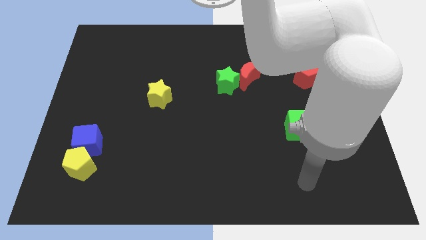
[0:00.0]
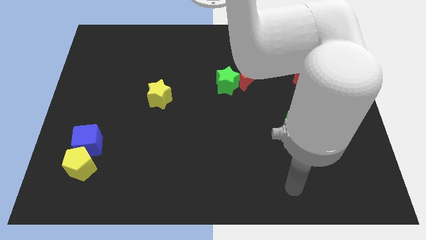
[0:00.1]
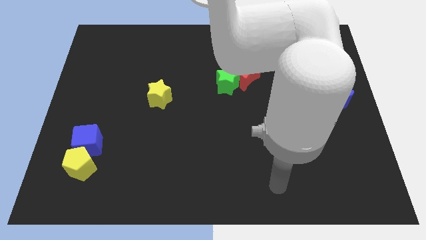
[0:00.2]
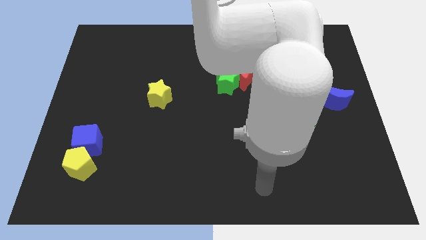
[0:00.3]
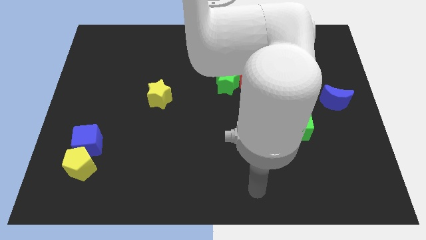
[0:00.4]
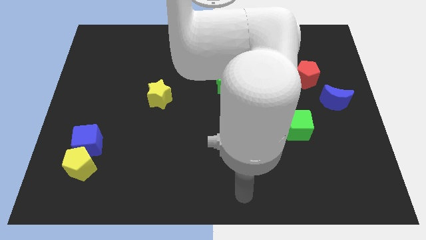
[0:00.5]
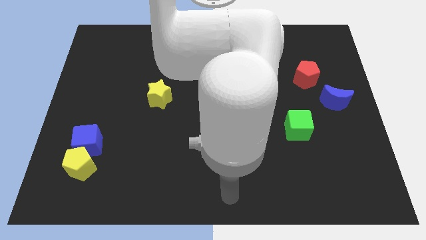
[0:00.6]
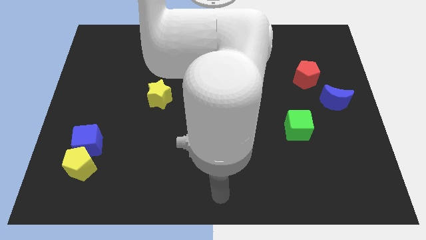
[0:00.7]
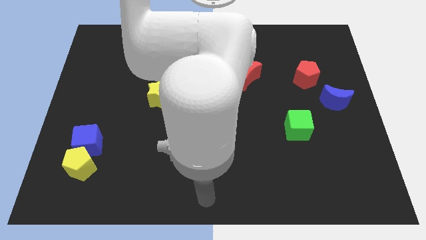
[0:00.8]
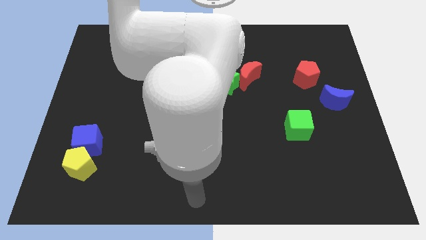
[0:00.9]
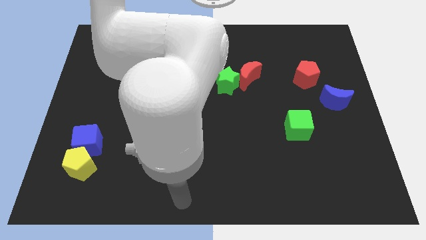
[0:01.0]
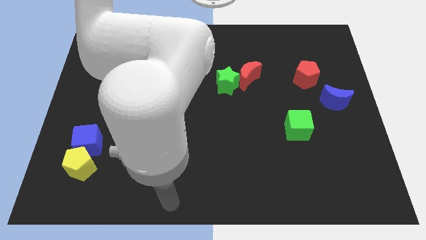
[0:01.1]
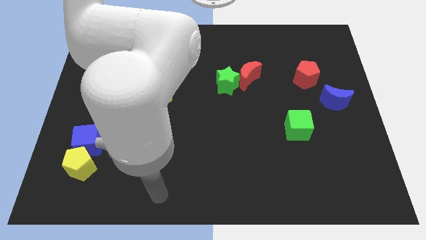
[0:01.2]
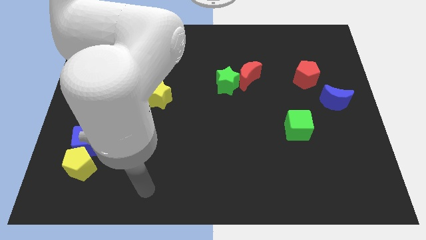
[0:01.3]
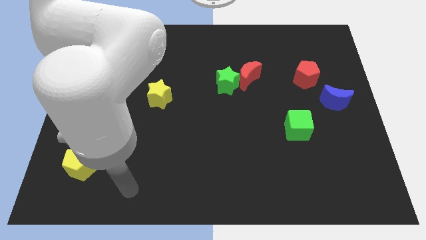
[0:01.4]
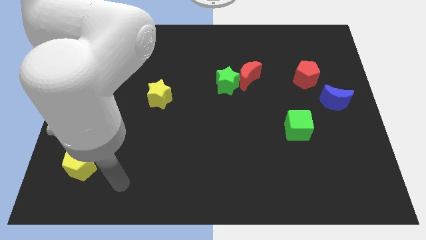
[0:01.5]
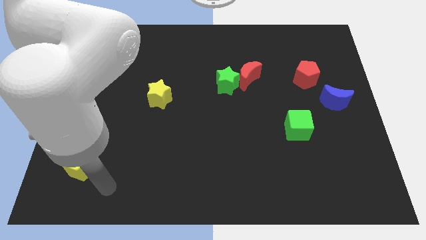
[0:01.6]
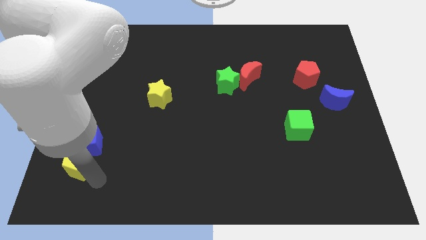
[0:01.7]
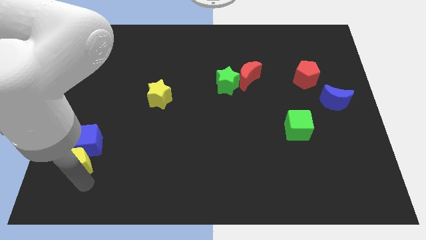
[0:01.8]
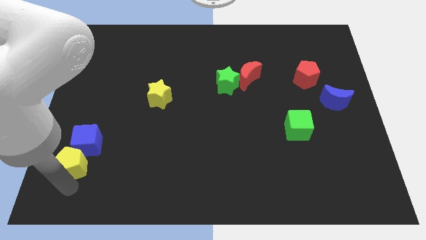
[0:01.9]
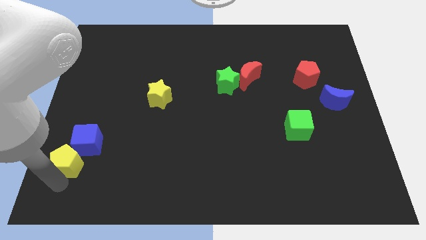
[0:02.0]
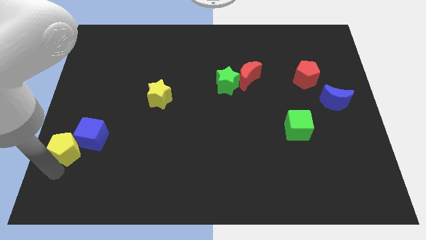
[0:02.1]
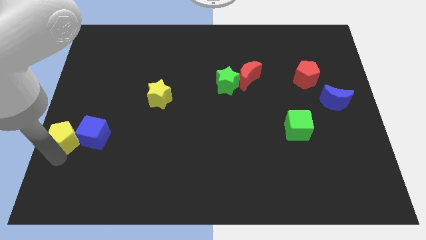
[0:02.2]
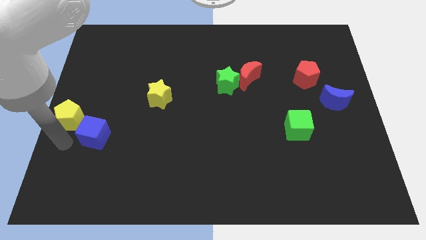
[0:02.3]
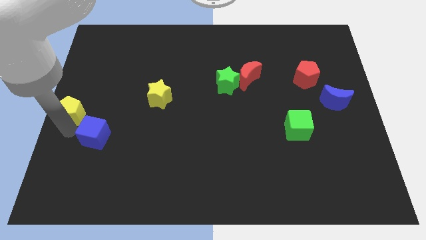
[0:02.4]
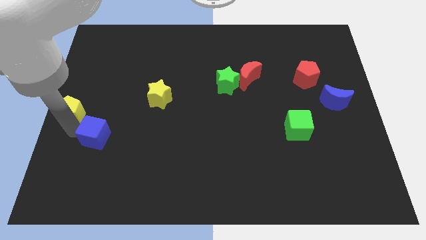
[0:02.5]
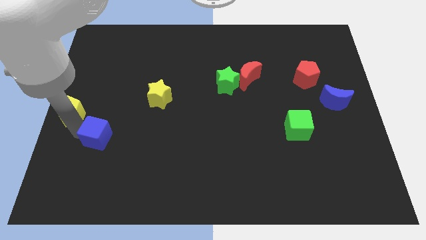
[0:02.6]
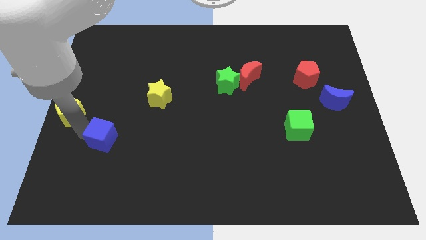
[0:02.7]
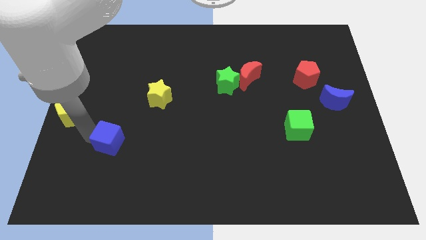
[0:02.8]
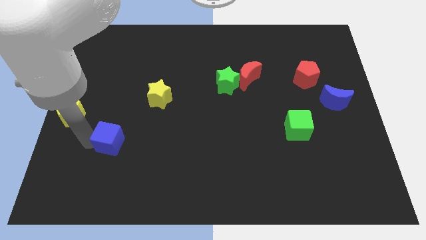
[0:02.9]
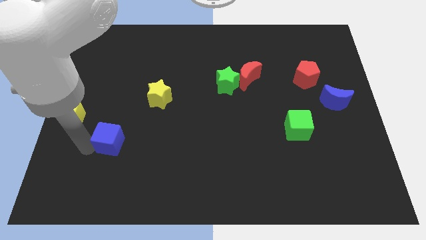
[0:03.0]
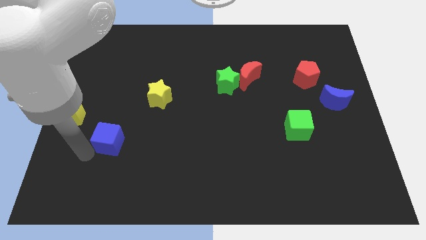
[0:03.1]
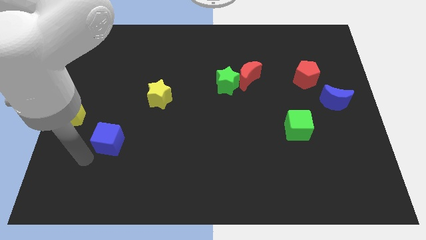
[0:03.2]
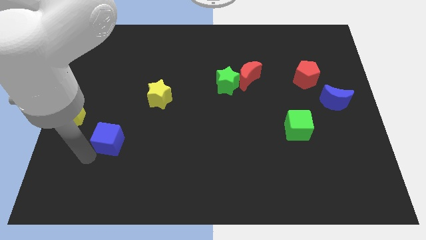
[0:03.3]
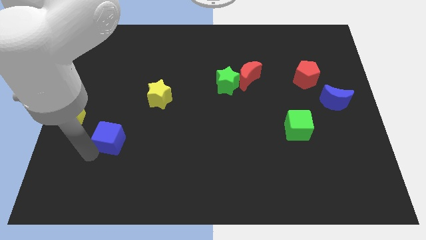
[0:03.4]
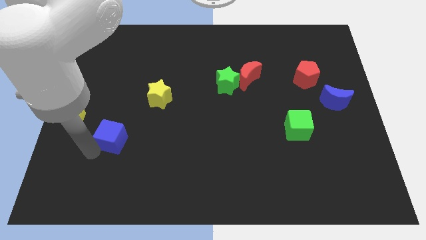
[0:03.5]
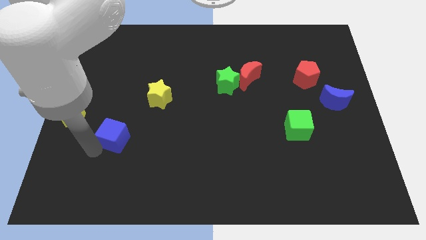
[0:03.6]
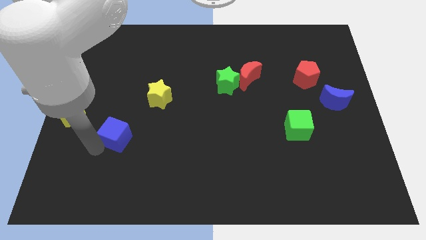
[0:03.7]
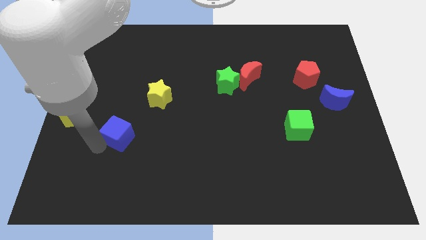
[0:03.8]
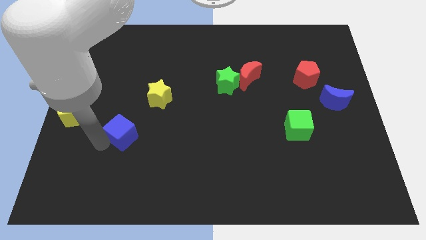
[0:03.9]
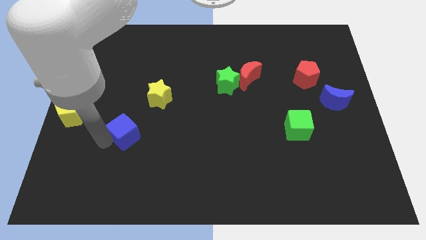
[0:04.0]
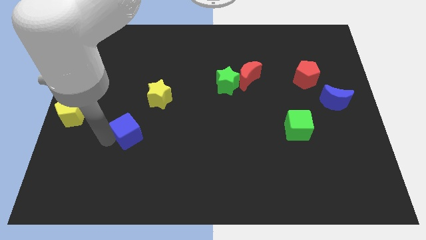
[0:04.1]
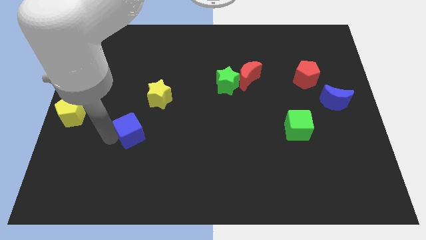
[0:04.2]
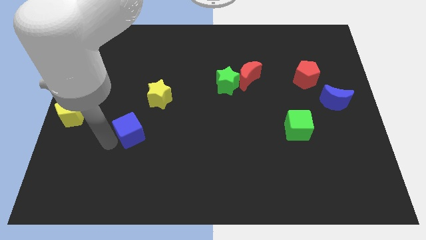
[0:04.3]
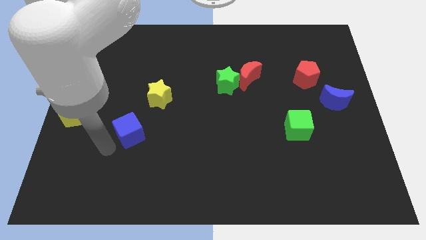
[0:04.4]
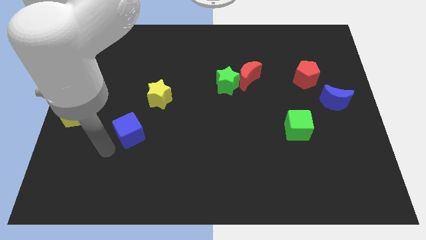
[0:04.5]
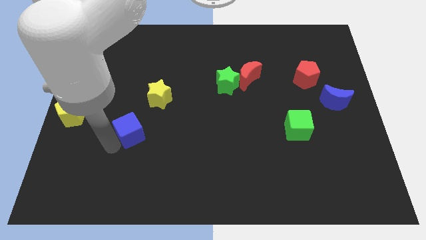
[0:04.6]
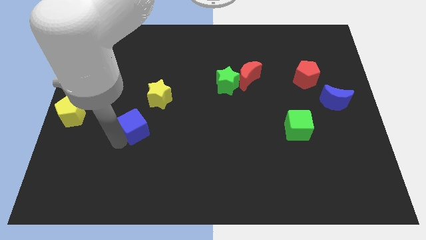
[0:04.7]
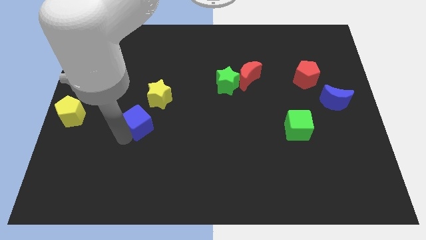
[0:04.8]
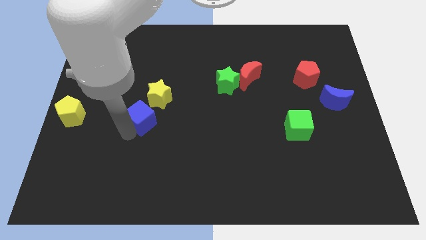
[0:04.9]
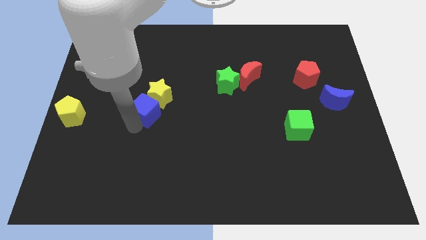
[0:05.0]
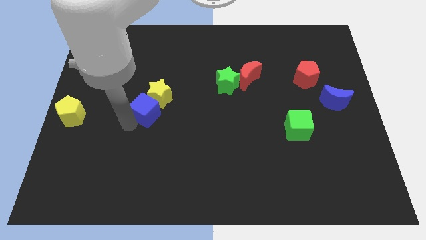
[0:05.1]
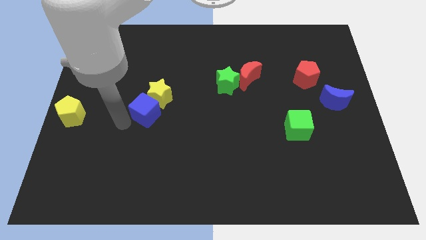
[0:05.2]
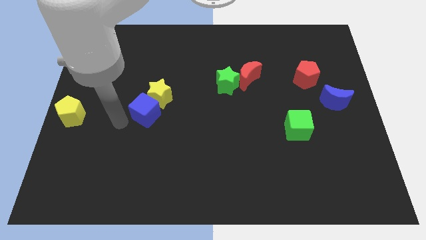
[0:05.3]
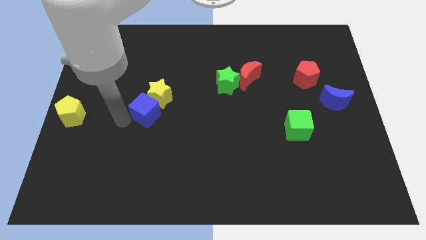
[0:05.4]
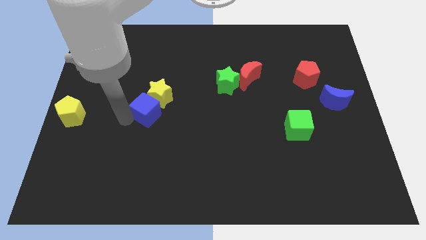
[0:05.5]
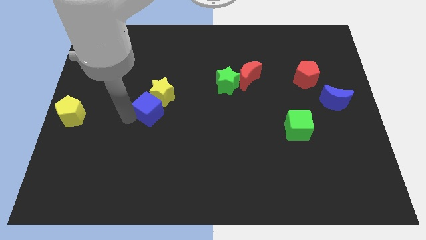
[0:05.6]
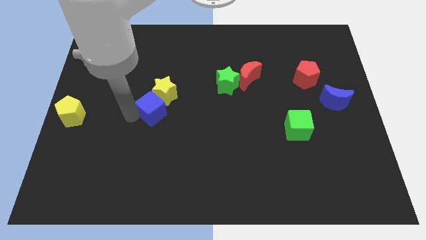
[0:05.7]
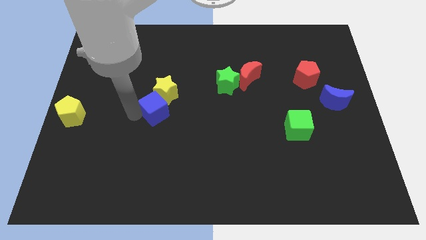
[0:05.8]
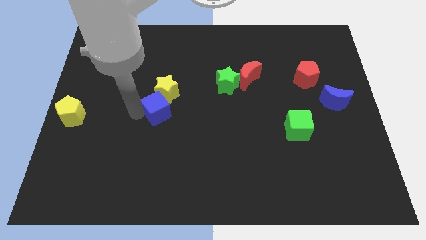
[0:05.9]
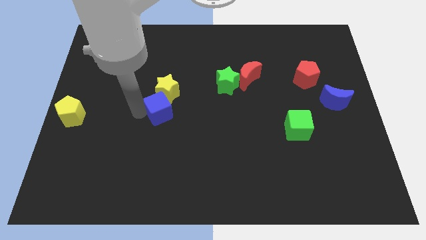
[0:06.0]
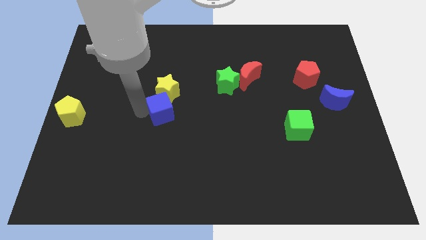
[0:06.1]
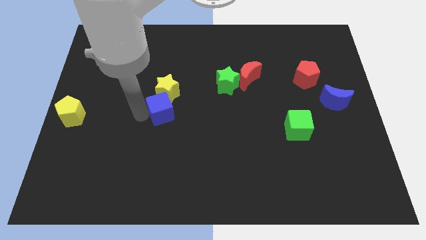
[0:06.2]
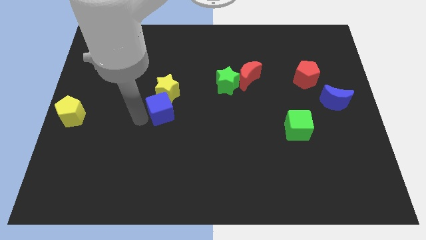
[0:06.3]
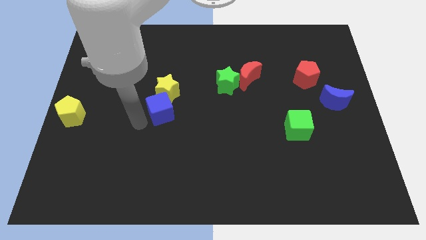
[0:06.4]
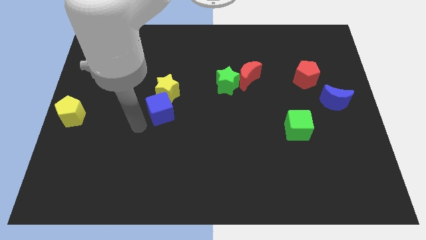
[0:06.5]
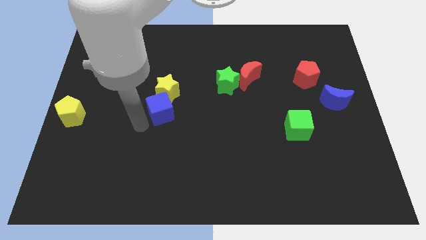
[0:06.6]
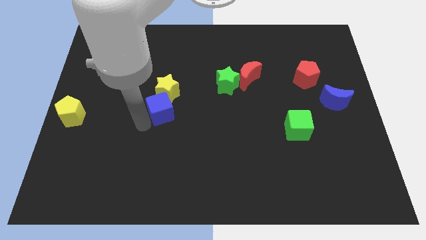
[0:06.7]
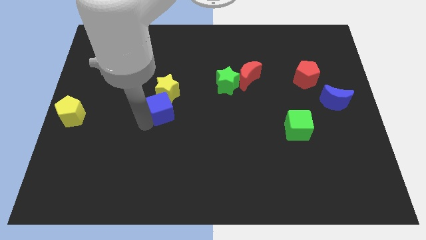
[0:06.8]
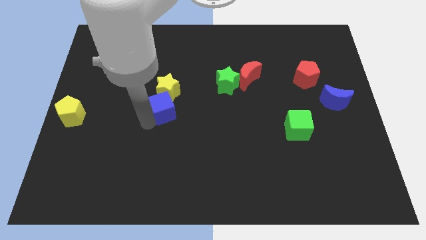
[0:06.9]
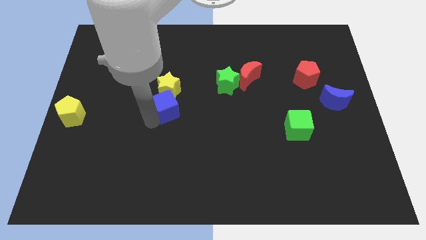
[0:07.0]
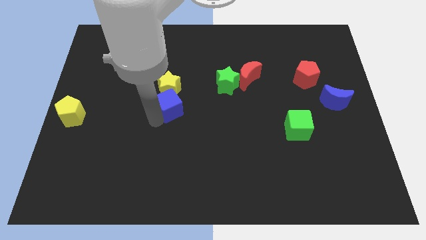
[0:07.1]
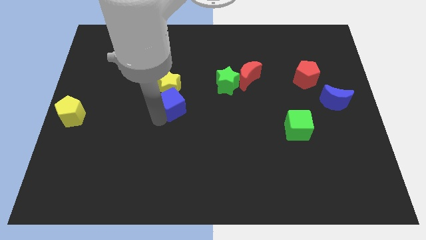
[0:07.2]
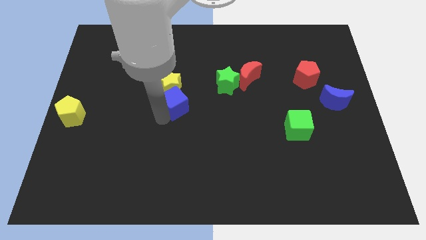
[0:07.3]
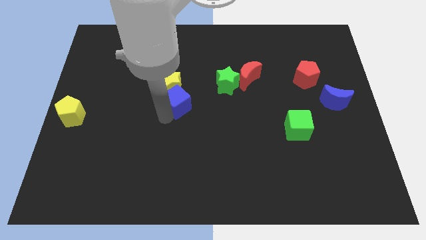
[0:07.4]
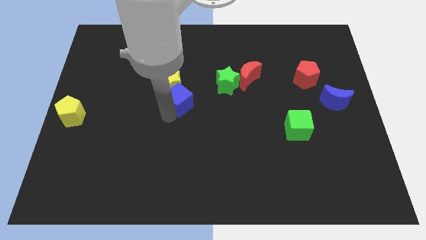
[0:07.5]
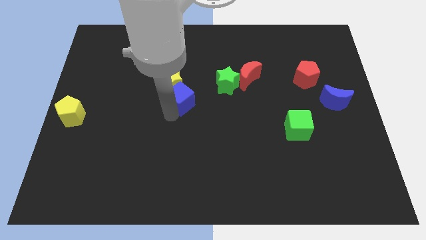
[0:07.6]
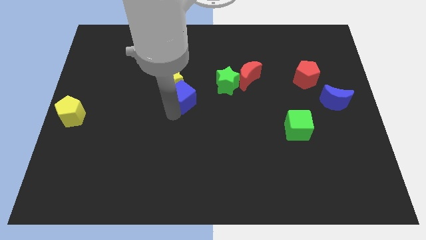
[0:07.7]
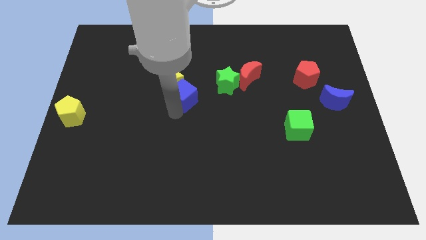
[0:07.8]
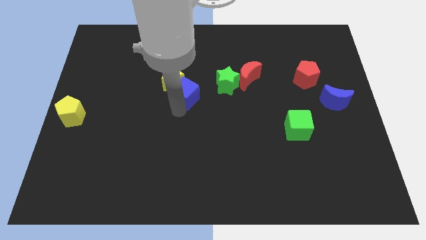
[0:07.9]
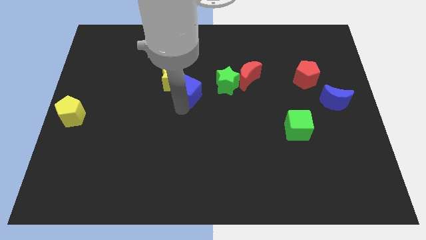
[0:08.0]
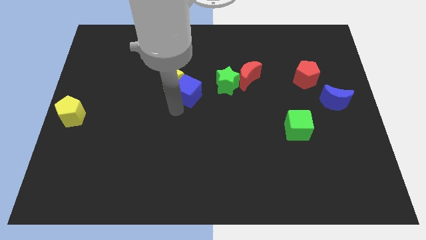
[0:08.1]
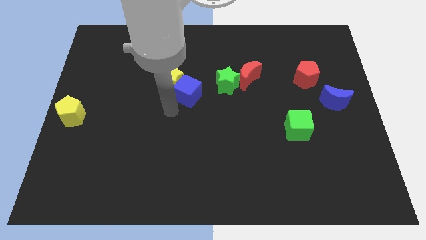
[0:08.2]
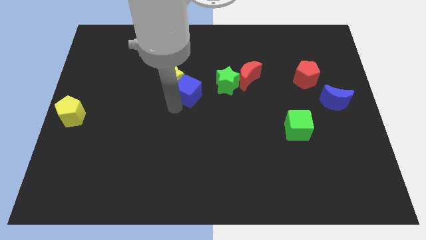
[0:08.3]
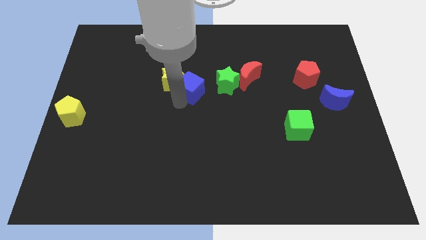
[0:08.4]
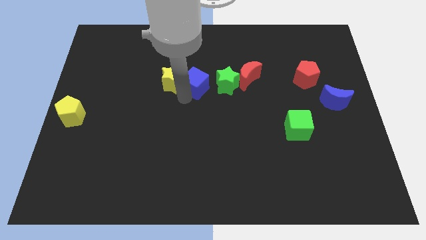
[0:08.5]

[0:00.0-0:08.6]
put the blue cube to the left side of the red moon
